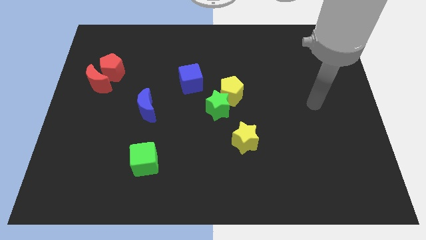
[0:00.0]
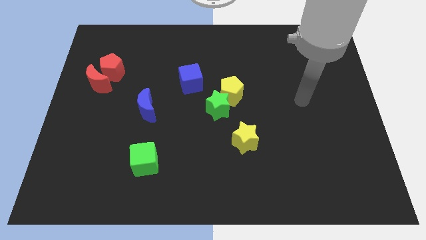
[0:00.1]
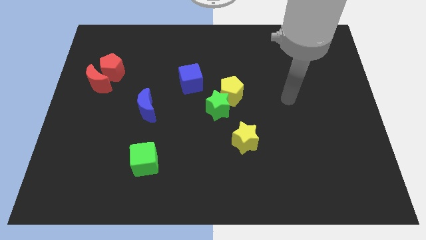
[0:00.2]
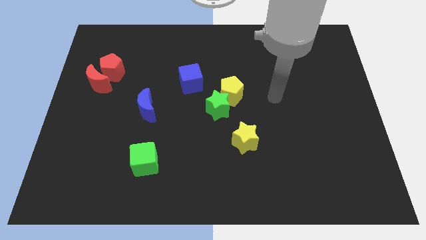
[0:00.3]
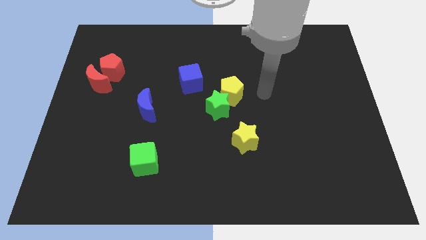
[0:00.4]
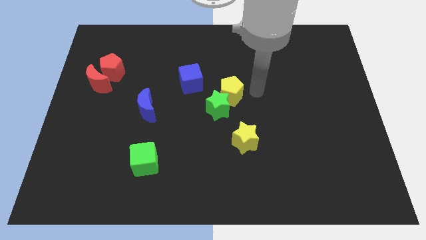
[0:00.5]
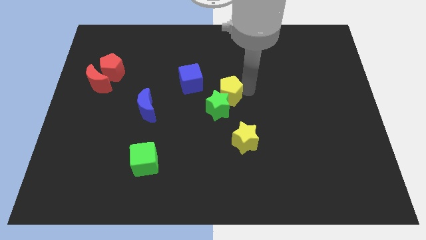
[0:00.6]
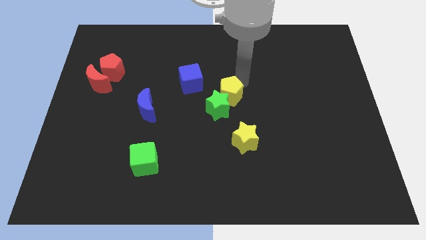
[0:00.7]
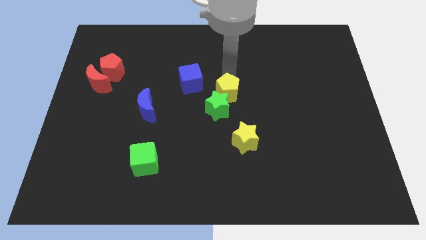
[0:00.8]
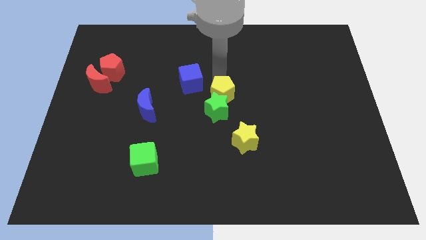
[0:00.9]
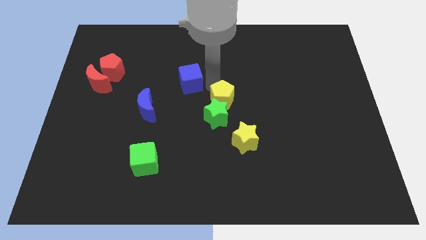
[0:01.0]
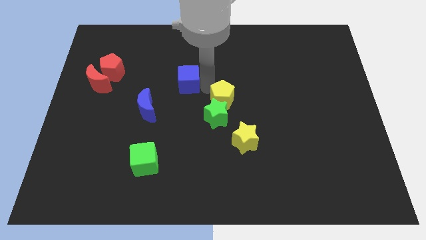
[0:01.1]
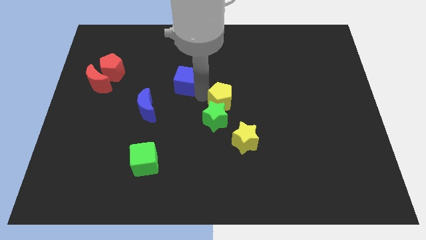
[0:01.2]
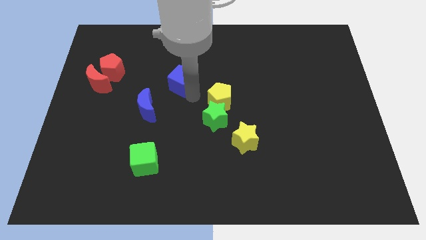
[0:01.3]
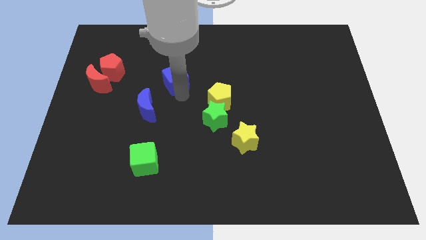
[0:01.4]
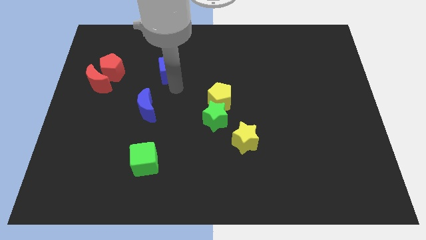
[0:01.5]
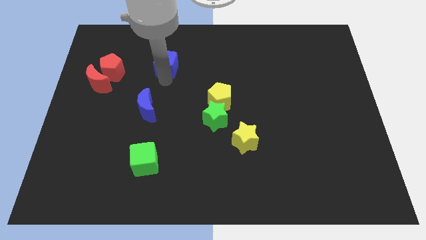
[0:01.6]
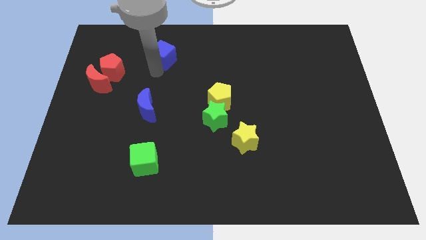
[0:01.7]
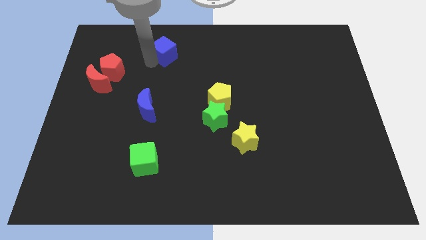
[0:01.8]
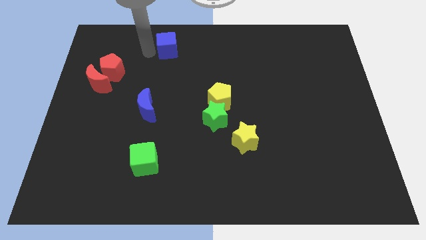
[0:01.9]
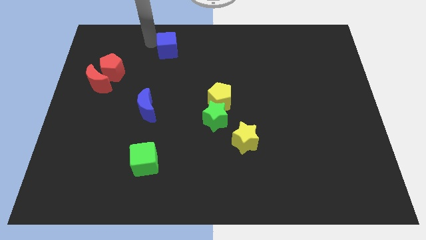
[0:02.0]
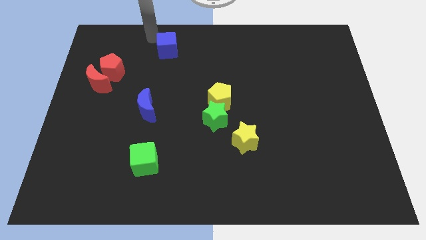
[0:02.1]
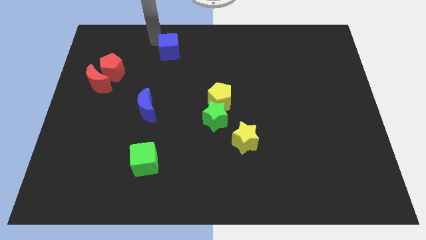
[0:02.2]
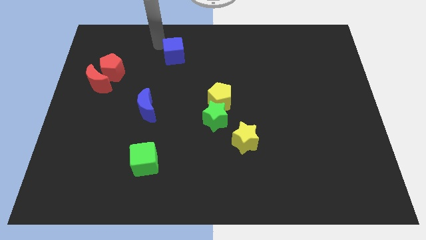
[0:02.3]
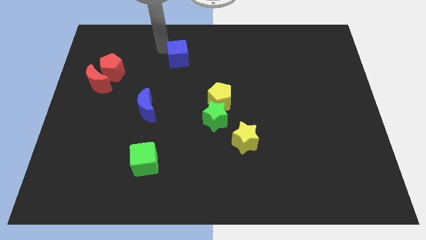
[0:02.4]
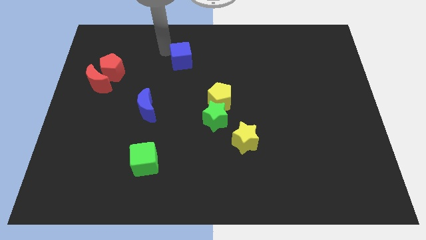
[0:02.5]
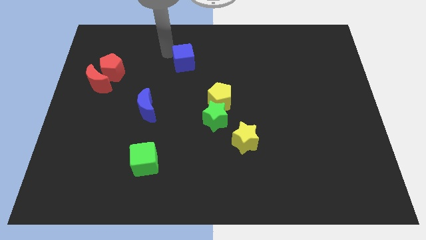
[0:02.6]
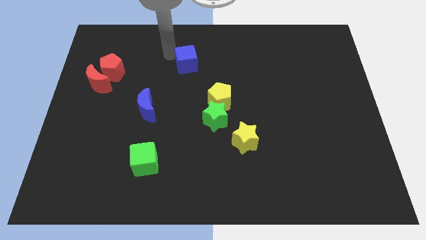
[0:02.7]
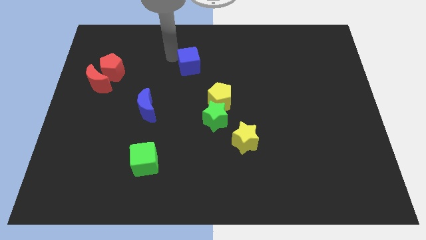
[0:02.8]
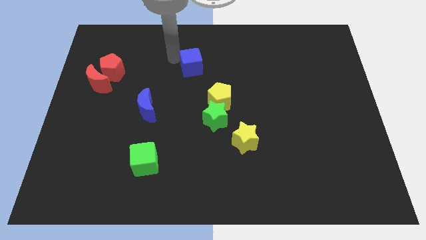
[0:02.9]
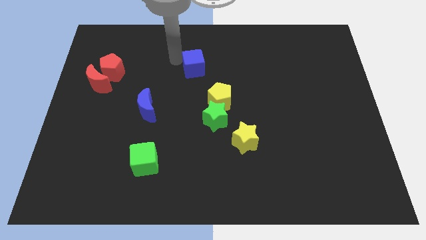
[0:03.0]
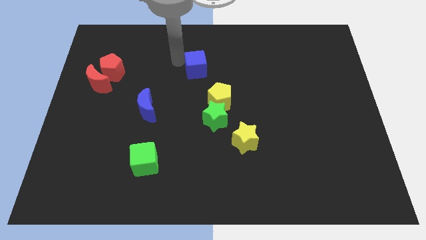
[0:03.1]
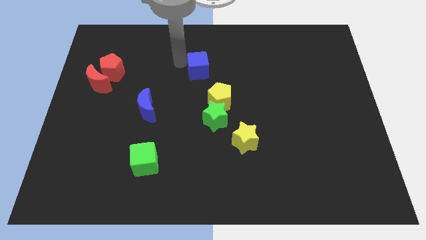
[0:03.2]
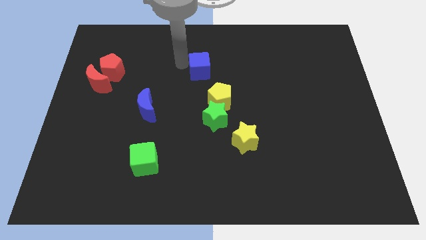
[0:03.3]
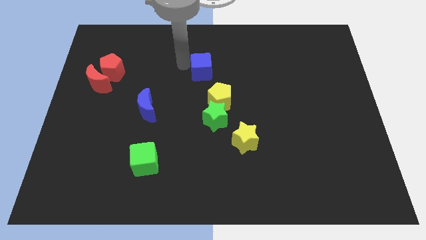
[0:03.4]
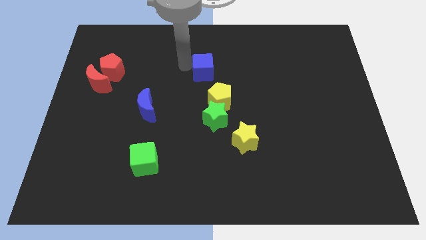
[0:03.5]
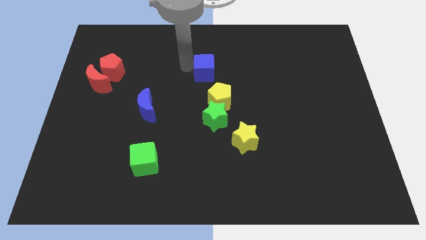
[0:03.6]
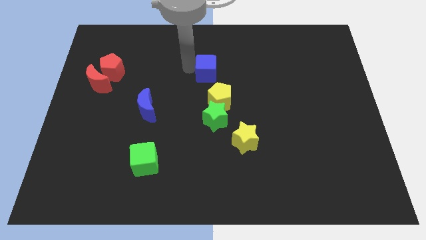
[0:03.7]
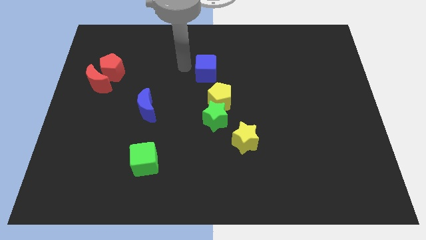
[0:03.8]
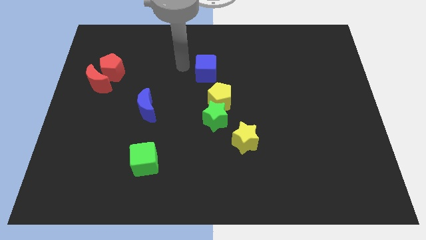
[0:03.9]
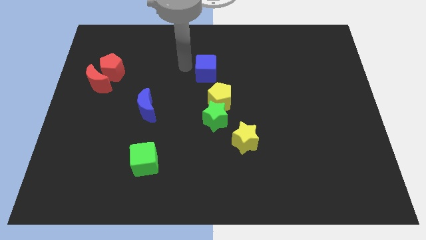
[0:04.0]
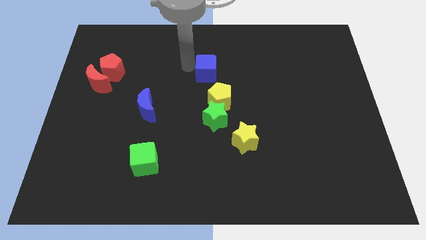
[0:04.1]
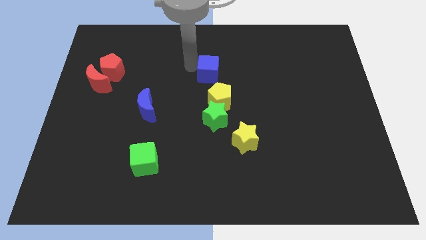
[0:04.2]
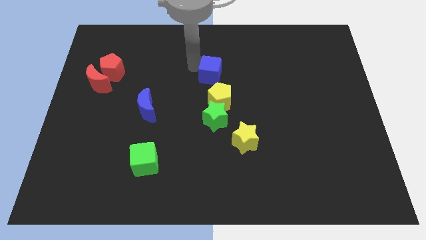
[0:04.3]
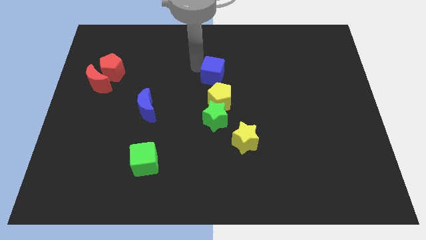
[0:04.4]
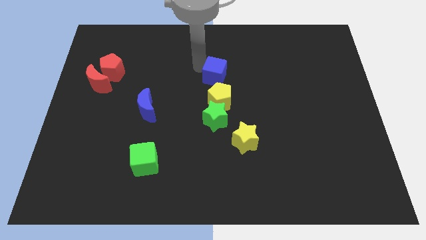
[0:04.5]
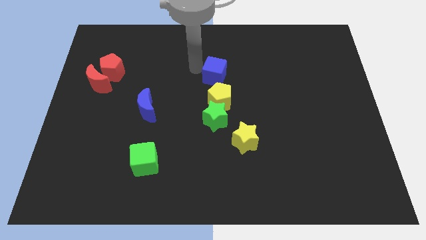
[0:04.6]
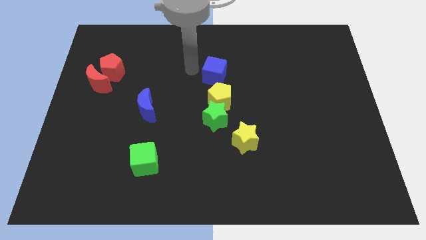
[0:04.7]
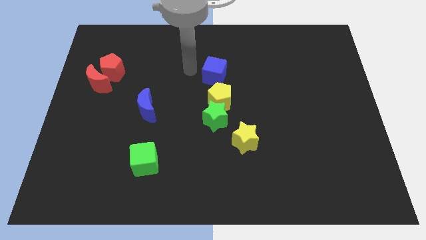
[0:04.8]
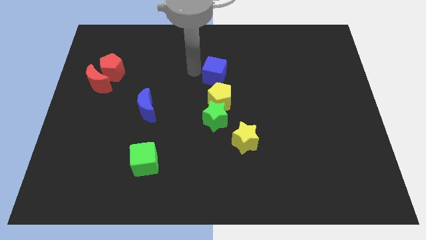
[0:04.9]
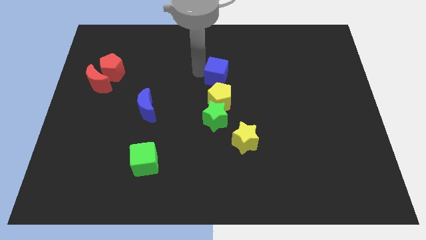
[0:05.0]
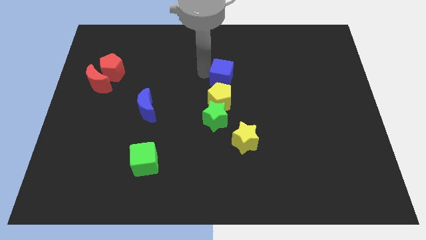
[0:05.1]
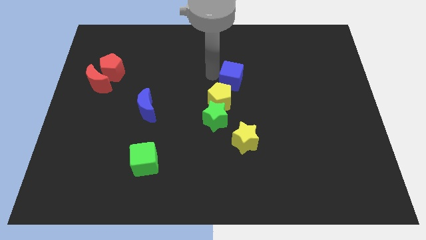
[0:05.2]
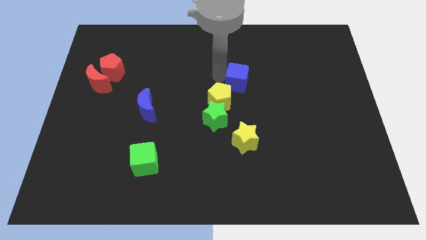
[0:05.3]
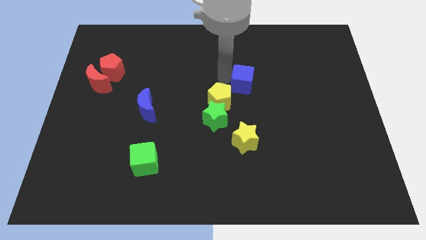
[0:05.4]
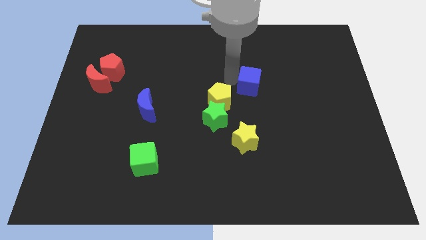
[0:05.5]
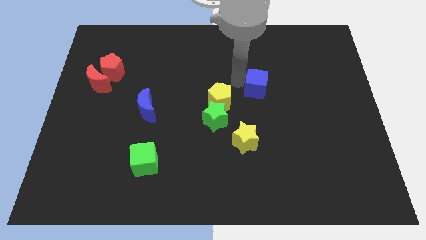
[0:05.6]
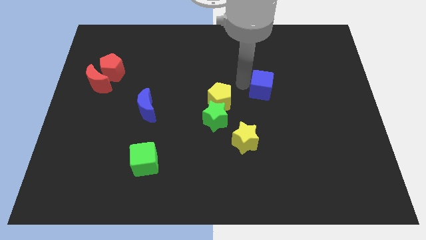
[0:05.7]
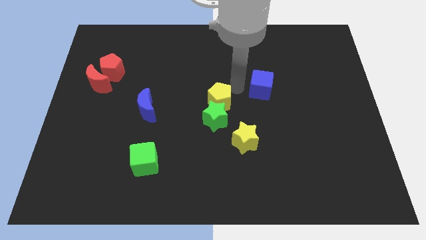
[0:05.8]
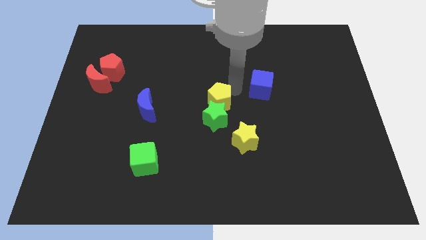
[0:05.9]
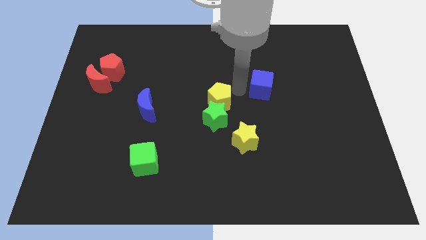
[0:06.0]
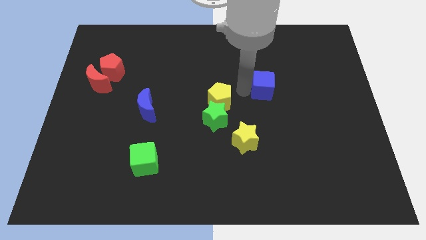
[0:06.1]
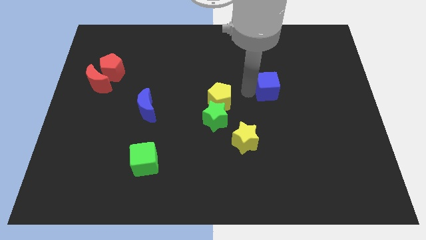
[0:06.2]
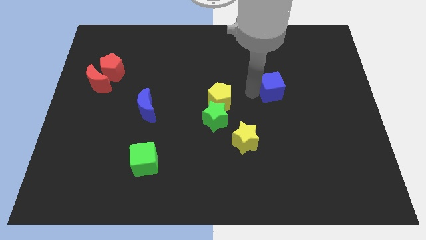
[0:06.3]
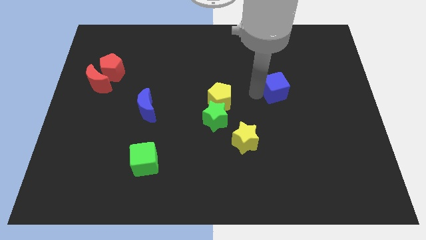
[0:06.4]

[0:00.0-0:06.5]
move the blue cube to the right

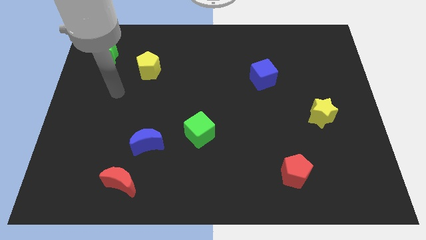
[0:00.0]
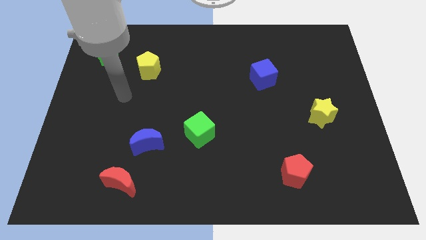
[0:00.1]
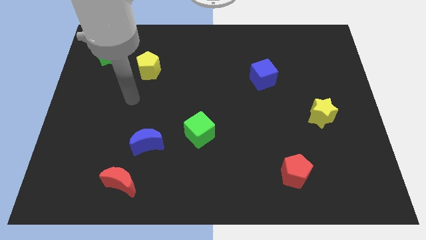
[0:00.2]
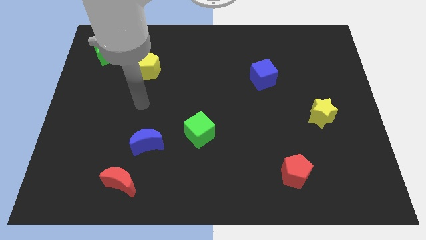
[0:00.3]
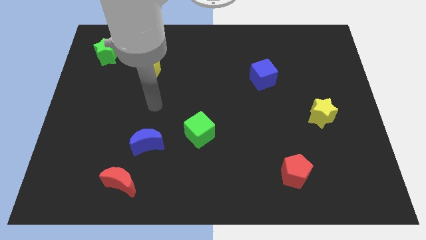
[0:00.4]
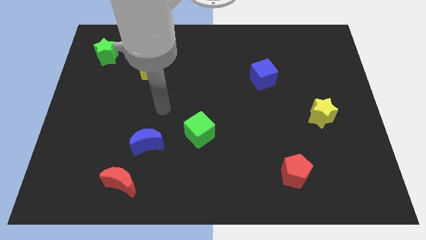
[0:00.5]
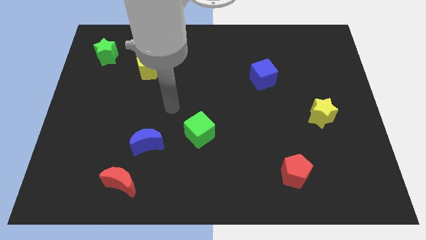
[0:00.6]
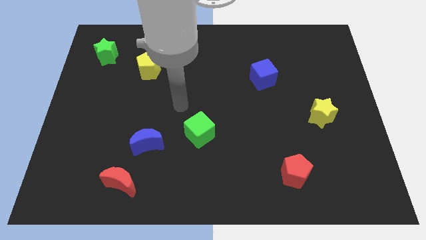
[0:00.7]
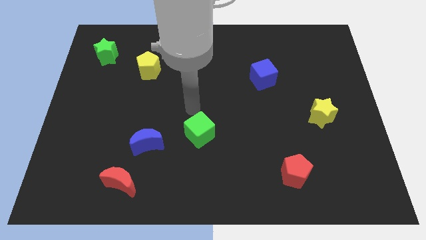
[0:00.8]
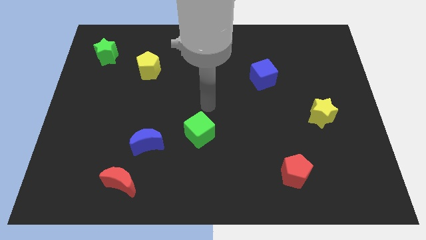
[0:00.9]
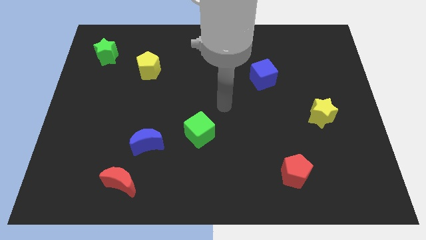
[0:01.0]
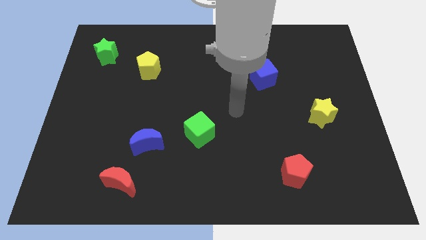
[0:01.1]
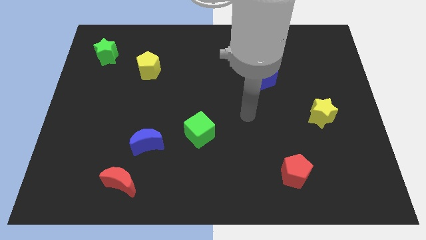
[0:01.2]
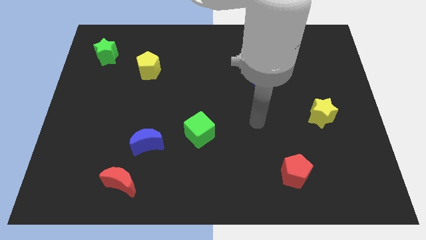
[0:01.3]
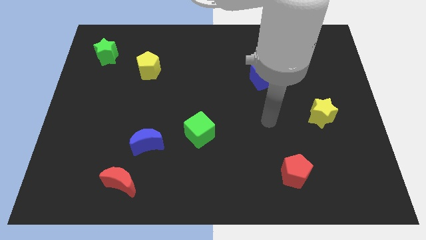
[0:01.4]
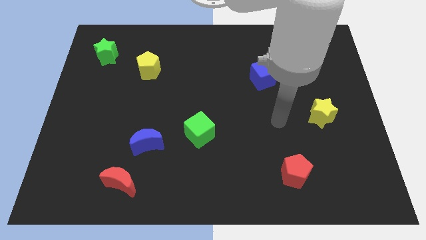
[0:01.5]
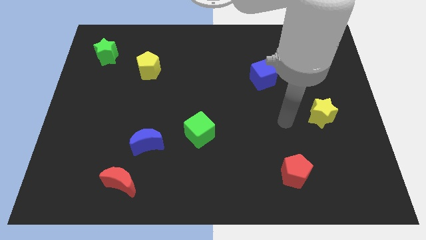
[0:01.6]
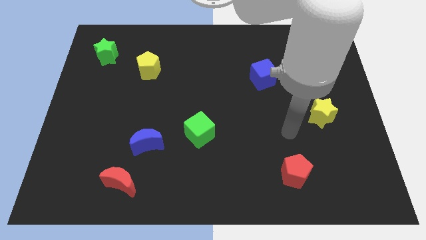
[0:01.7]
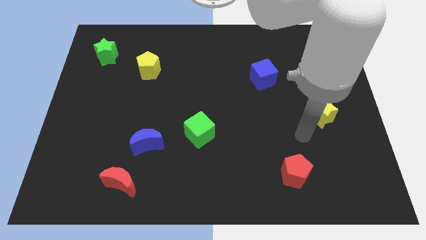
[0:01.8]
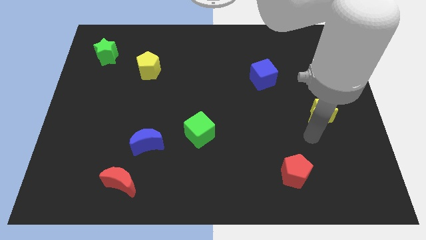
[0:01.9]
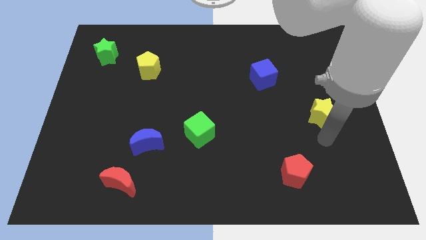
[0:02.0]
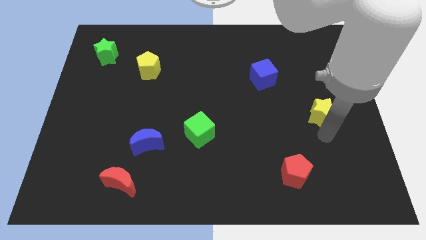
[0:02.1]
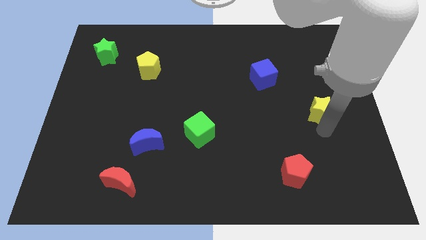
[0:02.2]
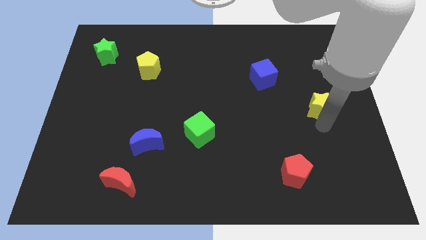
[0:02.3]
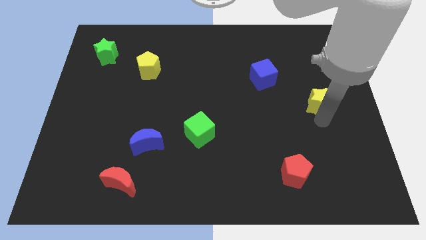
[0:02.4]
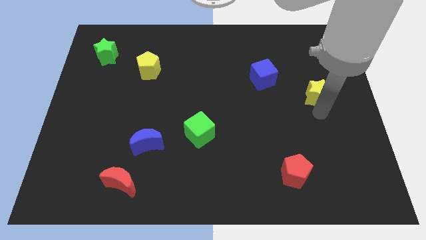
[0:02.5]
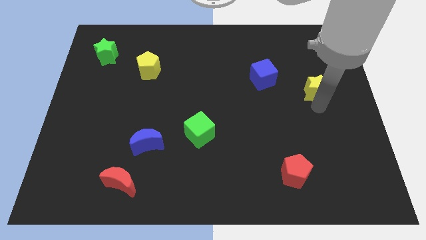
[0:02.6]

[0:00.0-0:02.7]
slightly move the yellow star upwards
